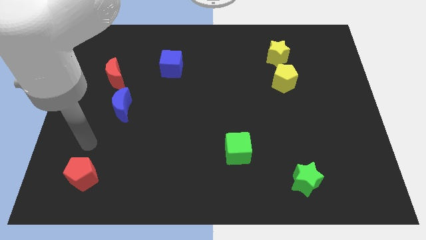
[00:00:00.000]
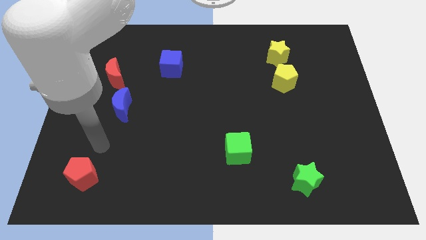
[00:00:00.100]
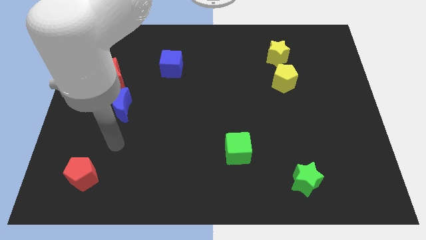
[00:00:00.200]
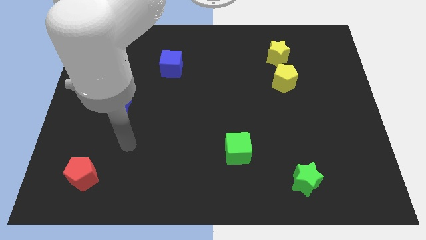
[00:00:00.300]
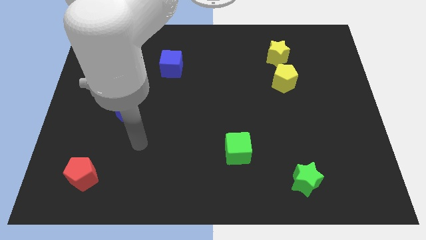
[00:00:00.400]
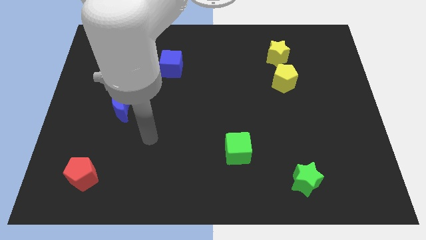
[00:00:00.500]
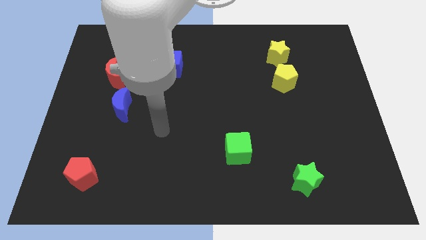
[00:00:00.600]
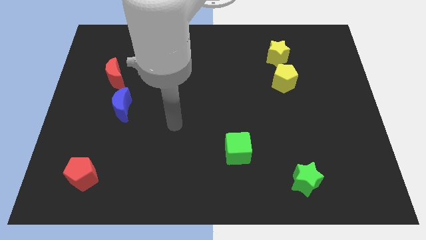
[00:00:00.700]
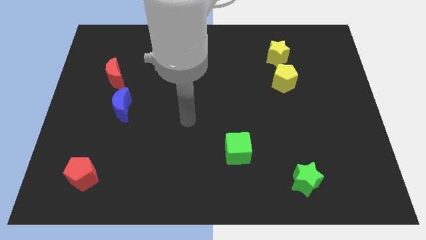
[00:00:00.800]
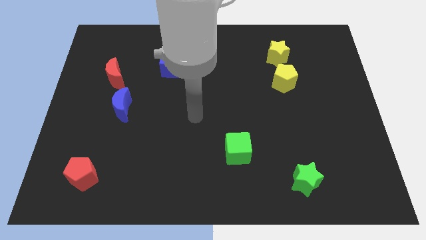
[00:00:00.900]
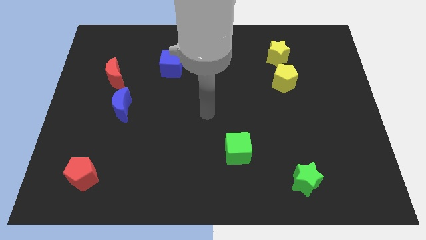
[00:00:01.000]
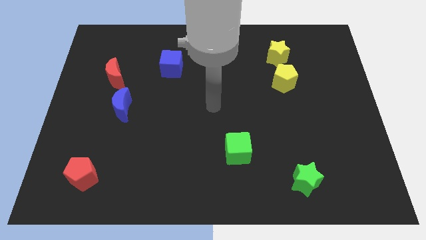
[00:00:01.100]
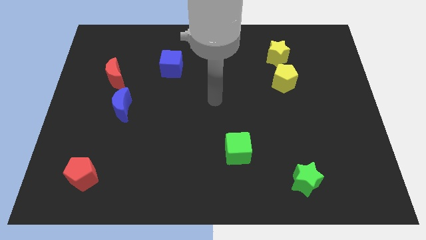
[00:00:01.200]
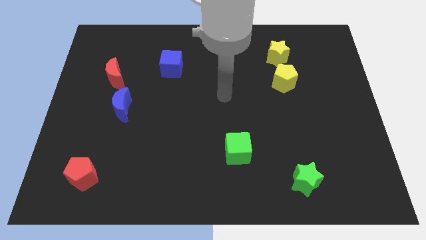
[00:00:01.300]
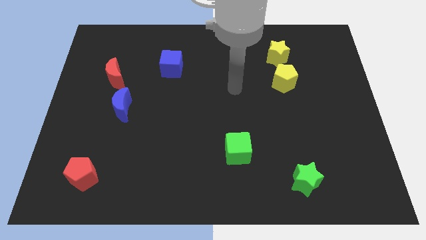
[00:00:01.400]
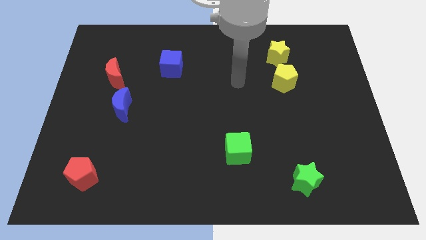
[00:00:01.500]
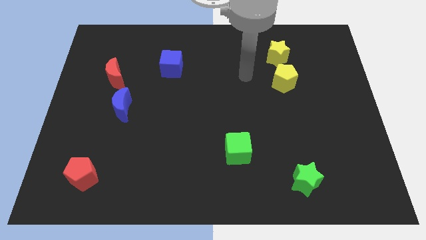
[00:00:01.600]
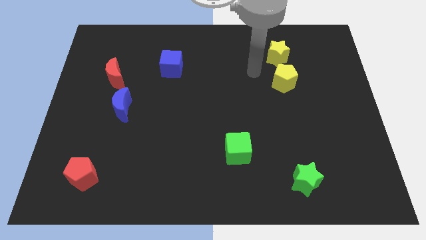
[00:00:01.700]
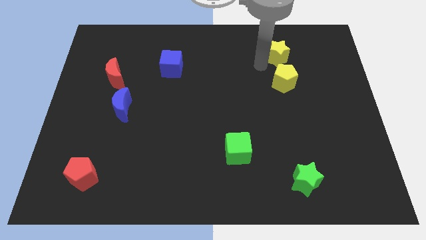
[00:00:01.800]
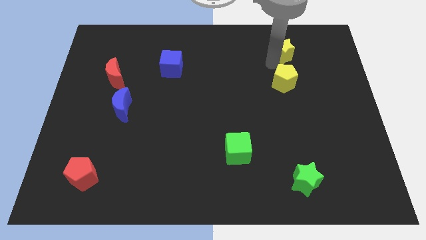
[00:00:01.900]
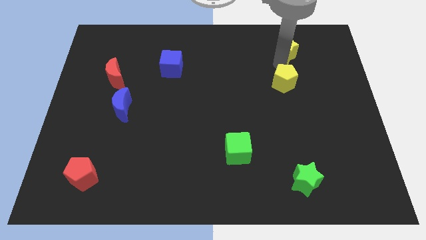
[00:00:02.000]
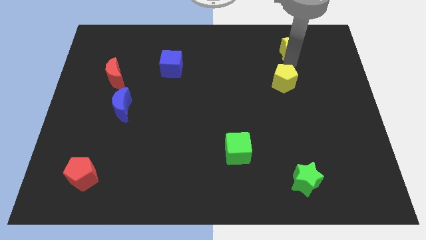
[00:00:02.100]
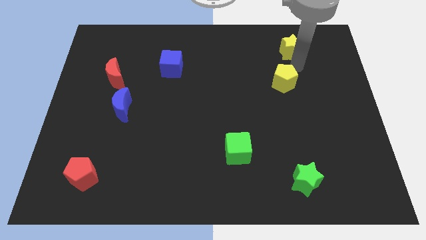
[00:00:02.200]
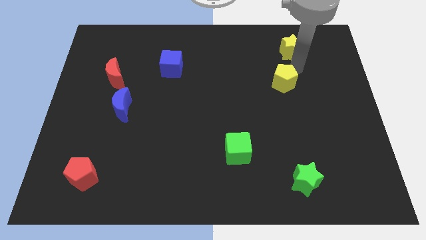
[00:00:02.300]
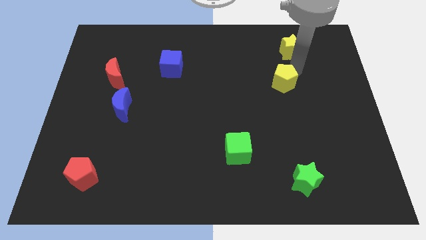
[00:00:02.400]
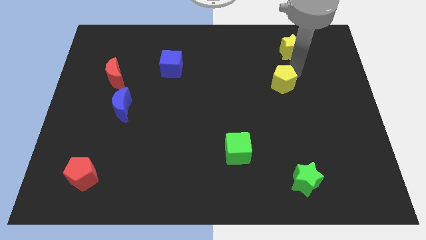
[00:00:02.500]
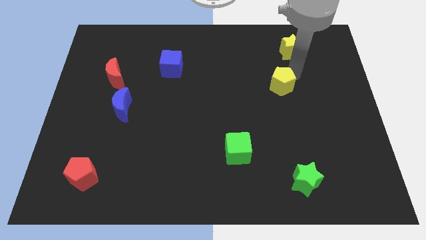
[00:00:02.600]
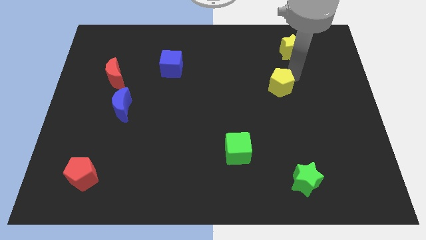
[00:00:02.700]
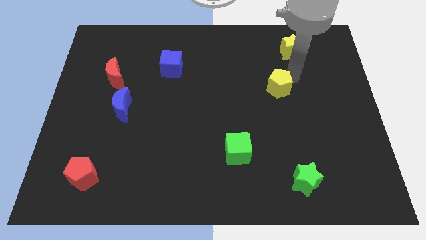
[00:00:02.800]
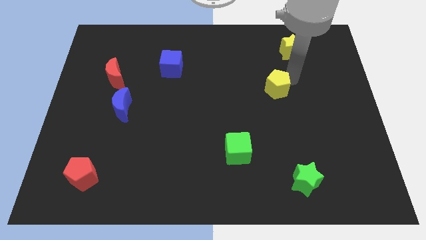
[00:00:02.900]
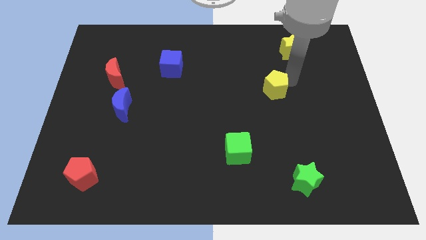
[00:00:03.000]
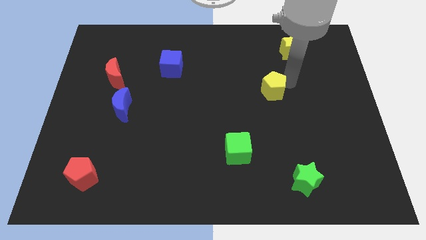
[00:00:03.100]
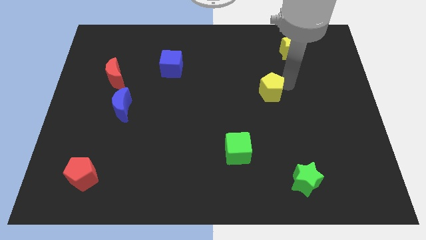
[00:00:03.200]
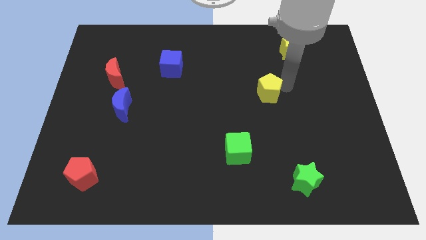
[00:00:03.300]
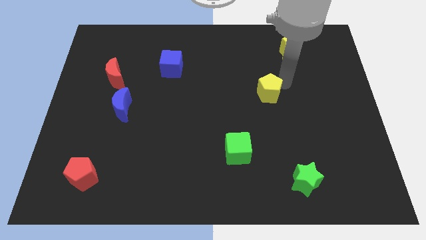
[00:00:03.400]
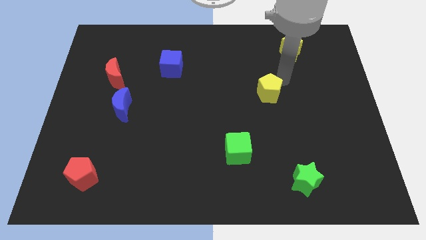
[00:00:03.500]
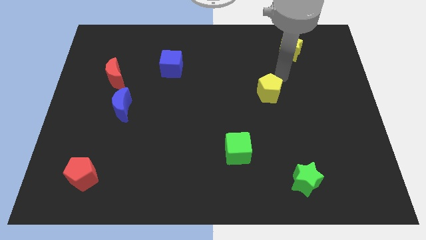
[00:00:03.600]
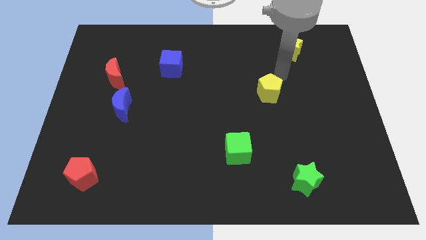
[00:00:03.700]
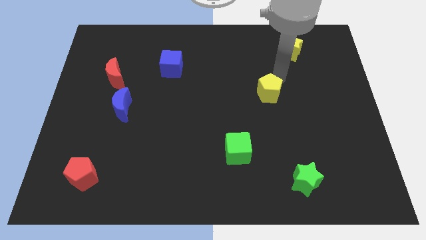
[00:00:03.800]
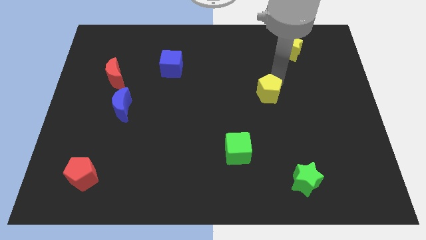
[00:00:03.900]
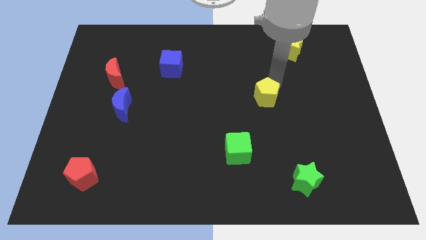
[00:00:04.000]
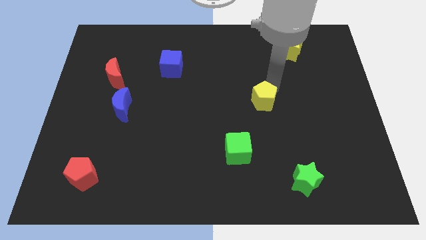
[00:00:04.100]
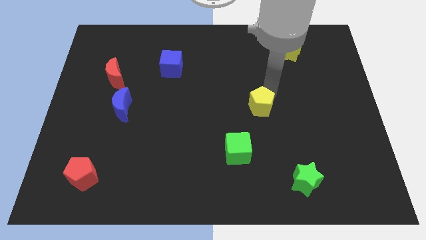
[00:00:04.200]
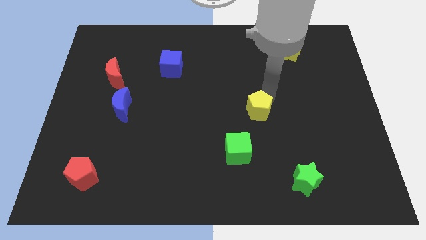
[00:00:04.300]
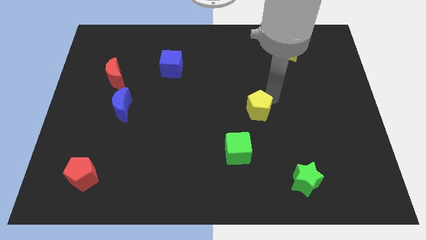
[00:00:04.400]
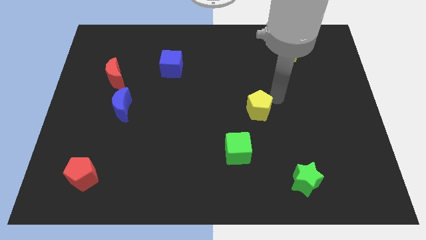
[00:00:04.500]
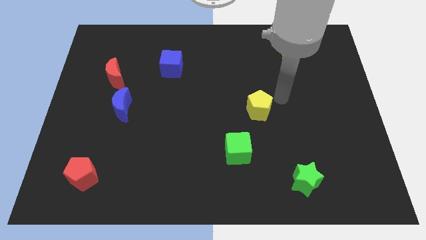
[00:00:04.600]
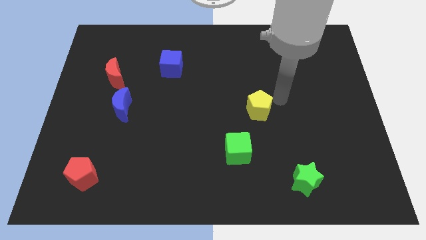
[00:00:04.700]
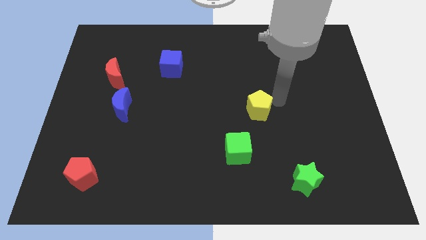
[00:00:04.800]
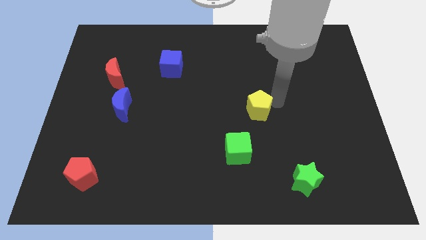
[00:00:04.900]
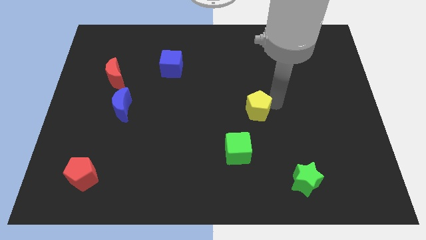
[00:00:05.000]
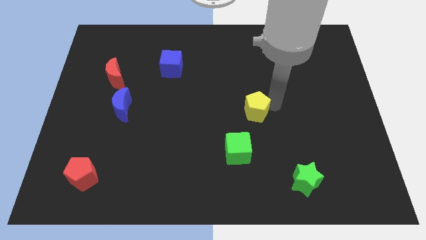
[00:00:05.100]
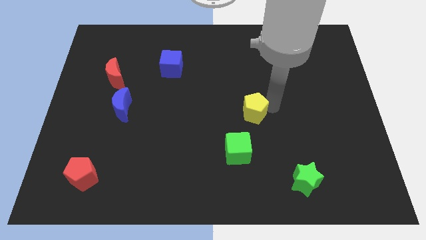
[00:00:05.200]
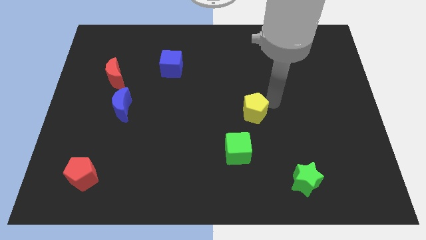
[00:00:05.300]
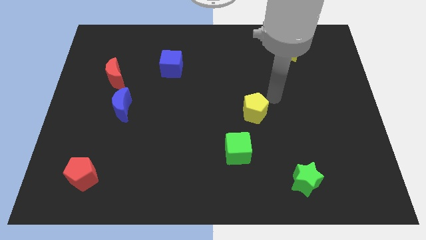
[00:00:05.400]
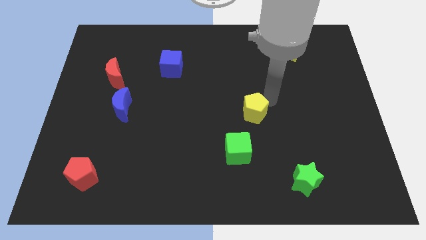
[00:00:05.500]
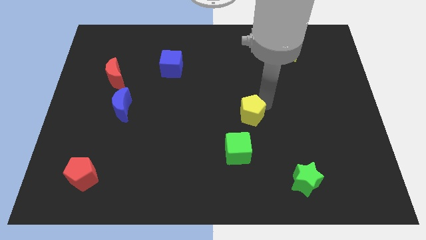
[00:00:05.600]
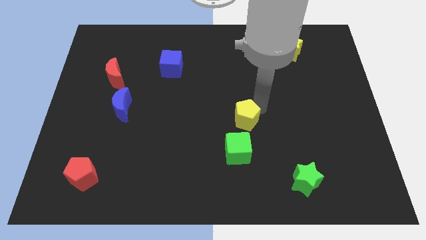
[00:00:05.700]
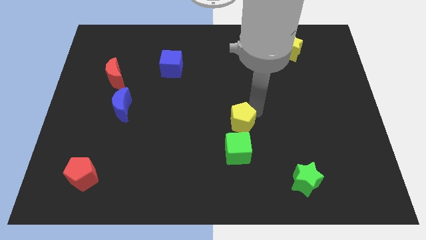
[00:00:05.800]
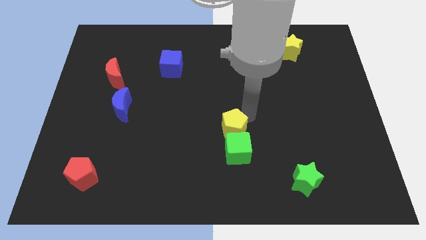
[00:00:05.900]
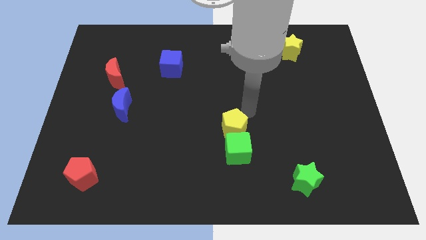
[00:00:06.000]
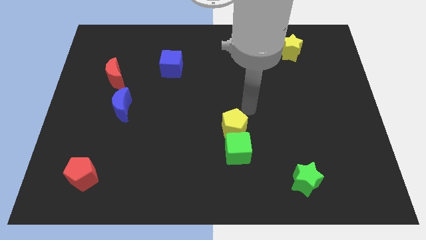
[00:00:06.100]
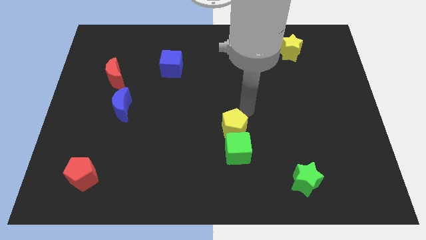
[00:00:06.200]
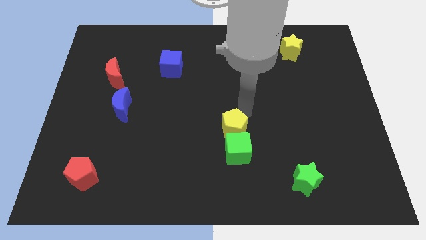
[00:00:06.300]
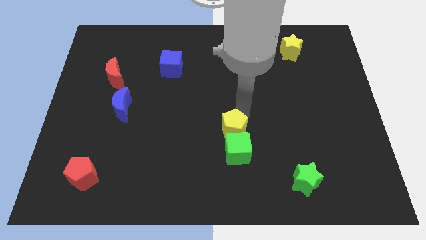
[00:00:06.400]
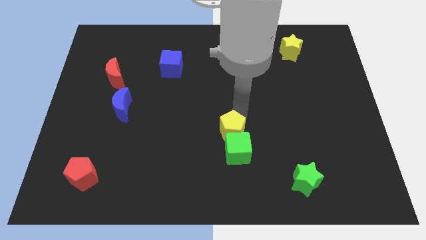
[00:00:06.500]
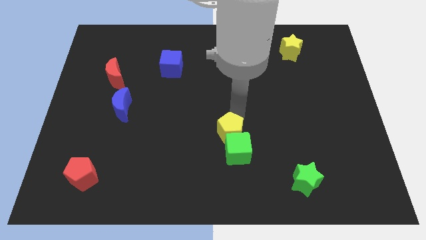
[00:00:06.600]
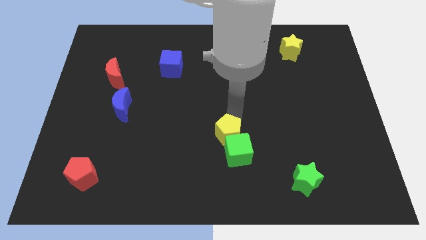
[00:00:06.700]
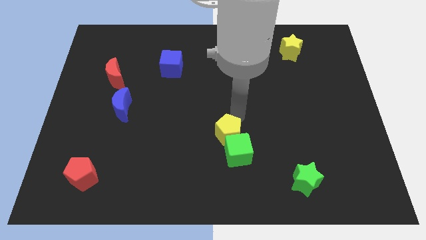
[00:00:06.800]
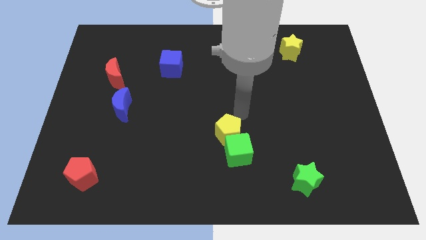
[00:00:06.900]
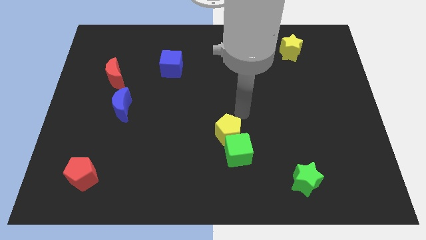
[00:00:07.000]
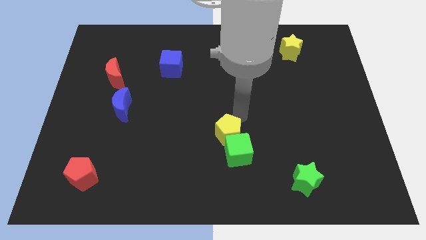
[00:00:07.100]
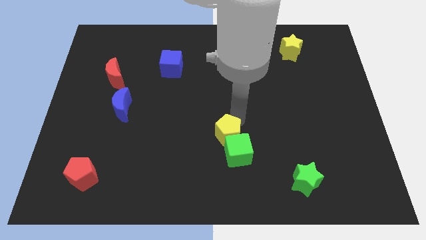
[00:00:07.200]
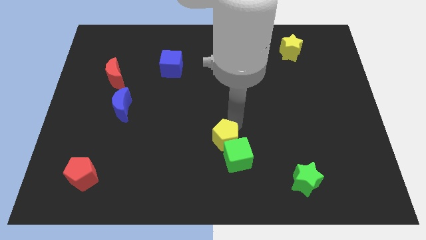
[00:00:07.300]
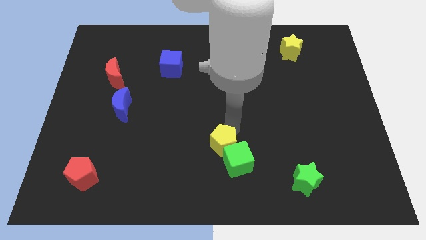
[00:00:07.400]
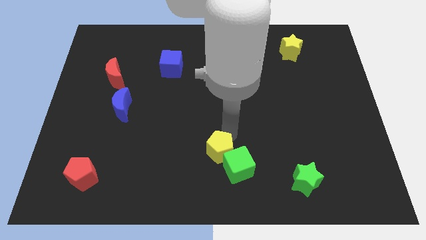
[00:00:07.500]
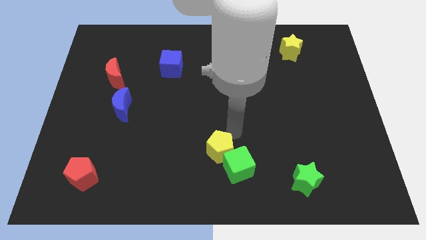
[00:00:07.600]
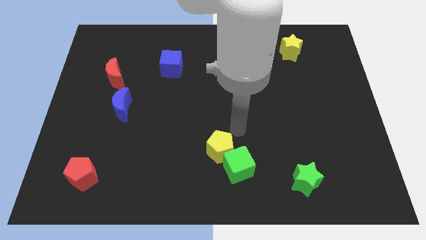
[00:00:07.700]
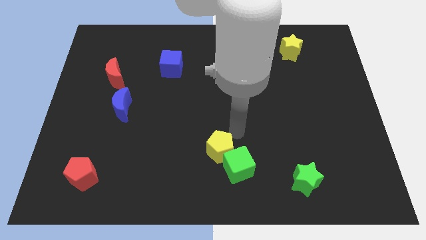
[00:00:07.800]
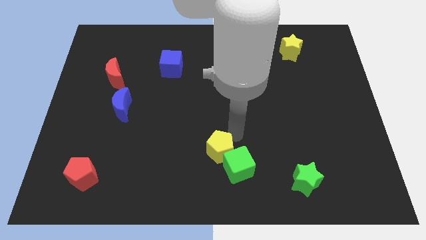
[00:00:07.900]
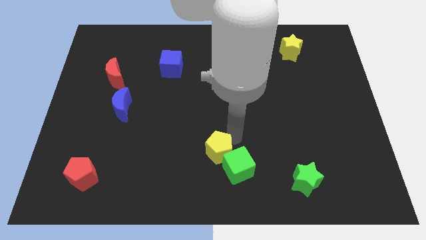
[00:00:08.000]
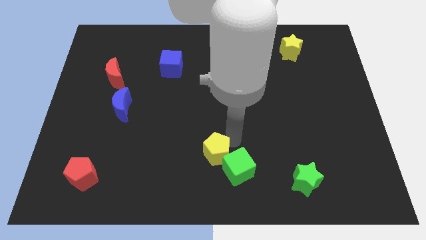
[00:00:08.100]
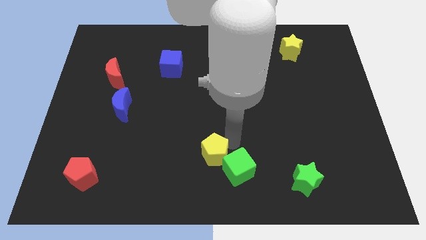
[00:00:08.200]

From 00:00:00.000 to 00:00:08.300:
slide the yellow pentagon to the bottom side
